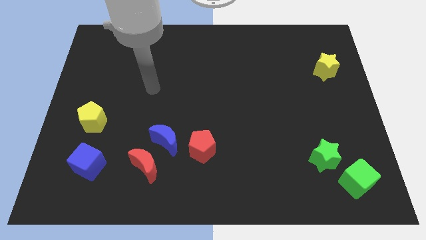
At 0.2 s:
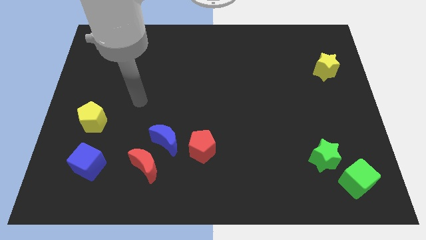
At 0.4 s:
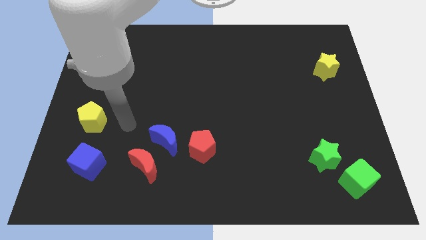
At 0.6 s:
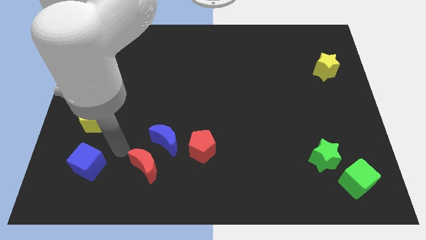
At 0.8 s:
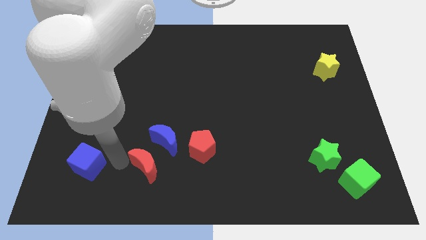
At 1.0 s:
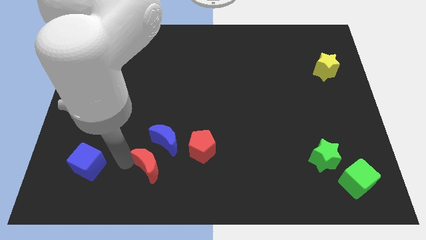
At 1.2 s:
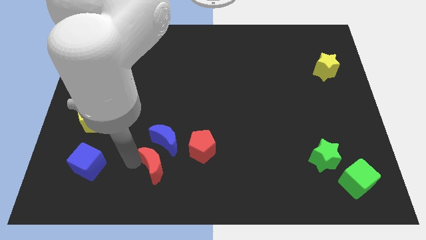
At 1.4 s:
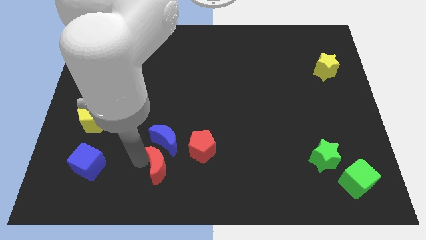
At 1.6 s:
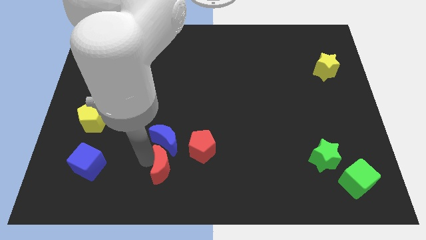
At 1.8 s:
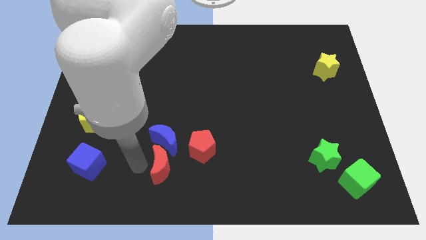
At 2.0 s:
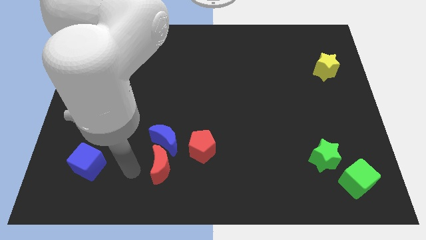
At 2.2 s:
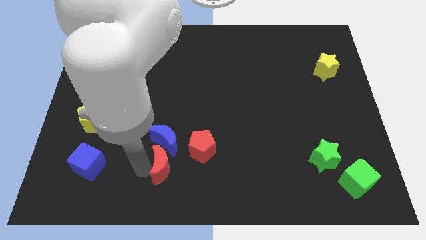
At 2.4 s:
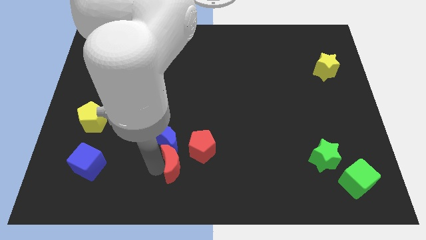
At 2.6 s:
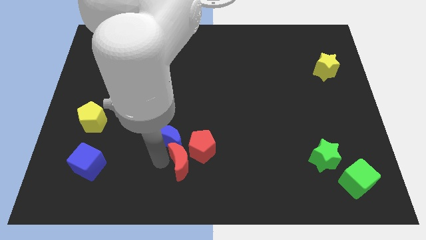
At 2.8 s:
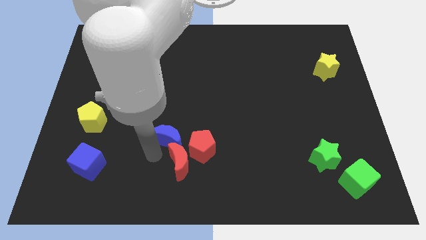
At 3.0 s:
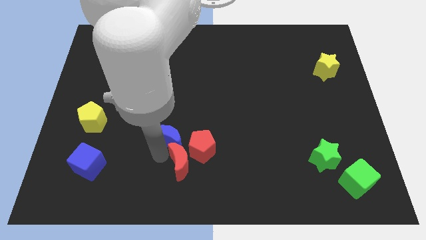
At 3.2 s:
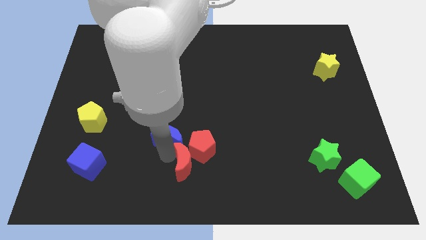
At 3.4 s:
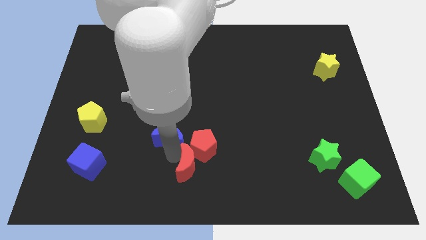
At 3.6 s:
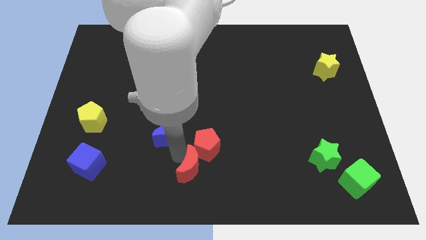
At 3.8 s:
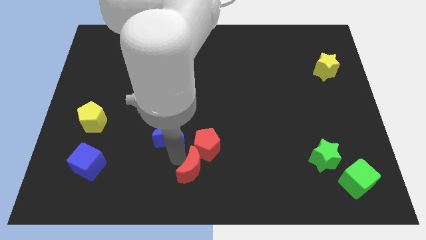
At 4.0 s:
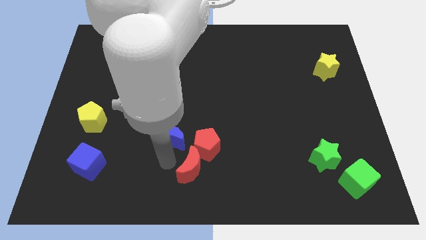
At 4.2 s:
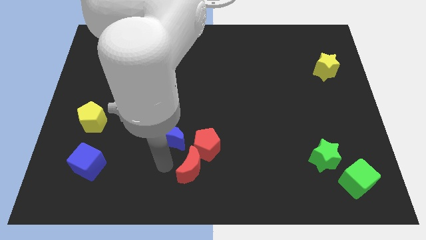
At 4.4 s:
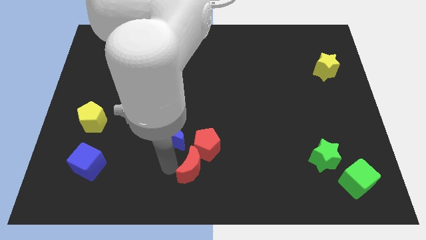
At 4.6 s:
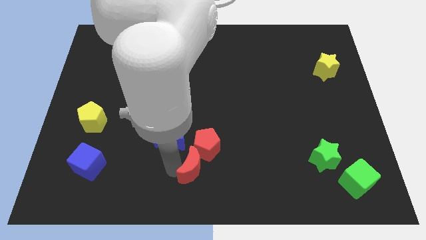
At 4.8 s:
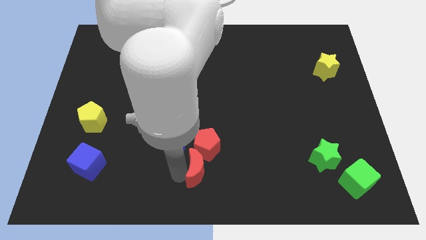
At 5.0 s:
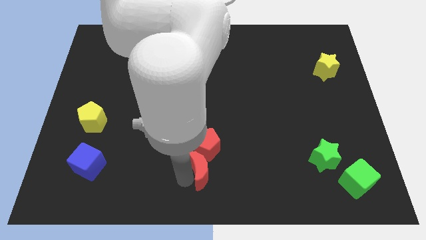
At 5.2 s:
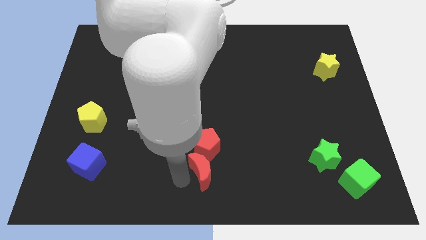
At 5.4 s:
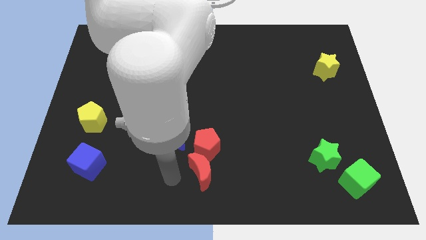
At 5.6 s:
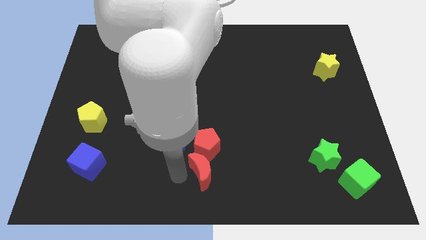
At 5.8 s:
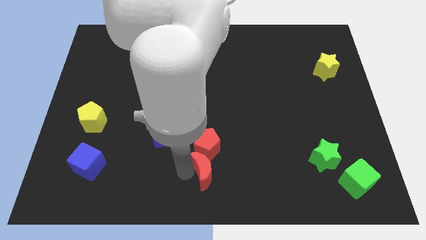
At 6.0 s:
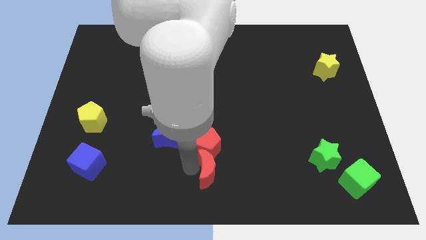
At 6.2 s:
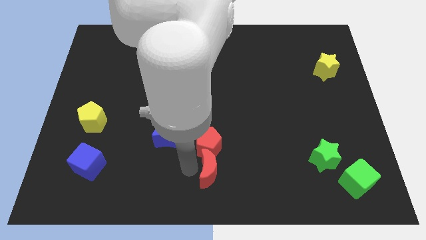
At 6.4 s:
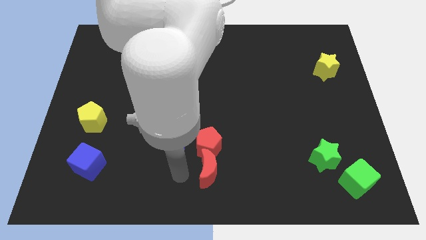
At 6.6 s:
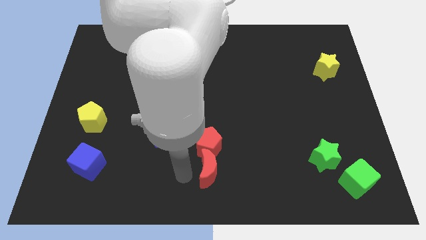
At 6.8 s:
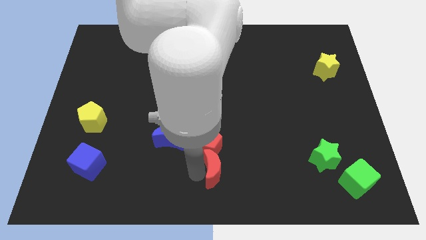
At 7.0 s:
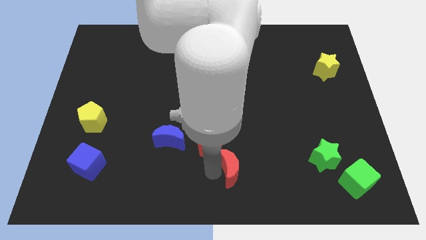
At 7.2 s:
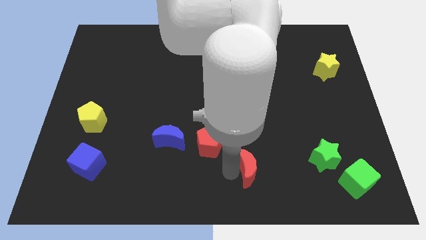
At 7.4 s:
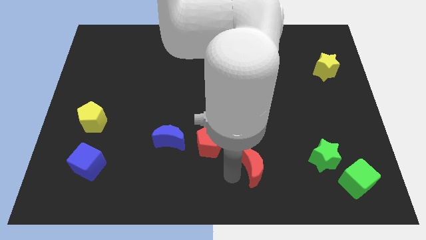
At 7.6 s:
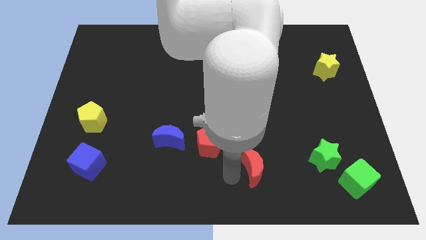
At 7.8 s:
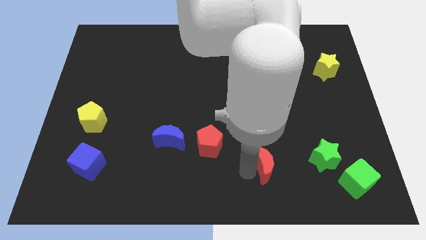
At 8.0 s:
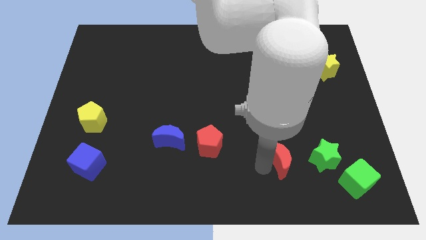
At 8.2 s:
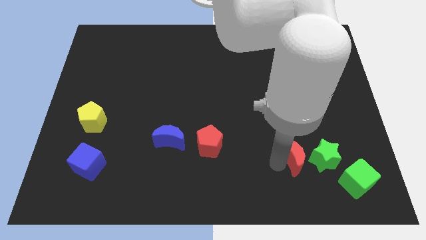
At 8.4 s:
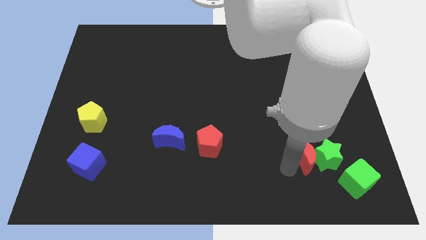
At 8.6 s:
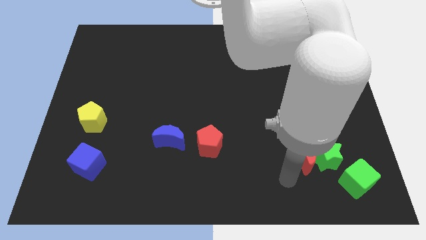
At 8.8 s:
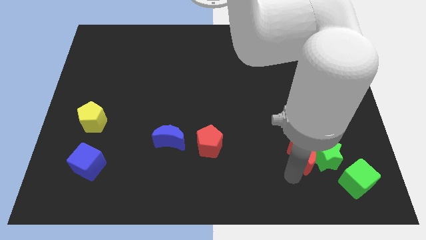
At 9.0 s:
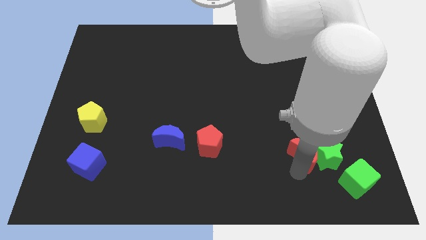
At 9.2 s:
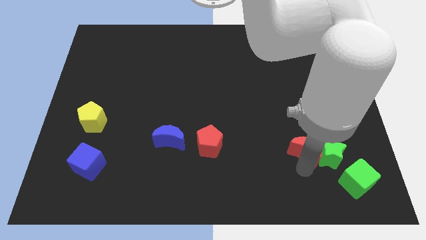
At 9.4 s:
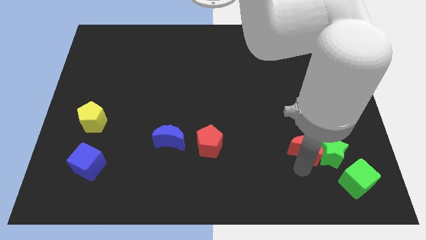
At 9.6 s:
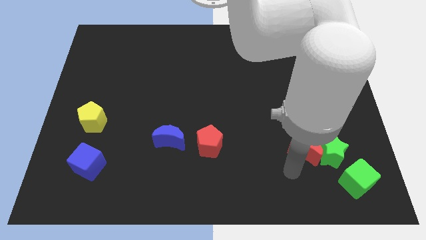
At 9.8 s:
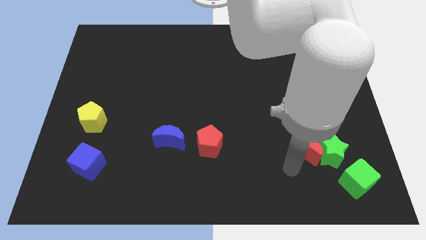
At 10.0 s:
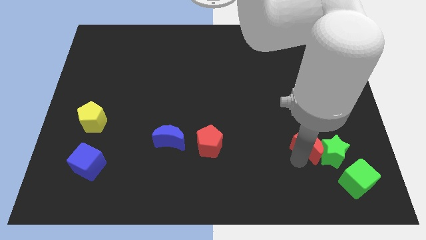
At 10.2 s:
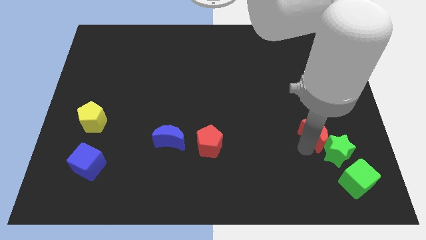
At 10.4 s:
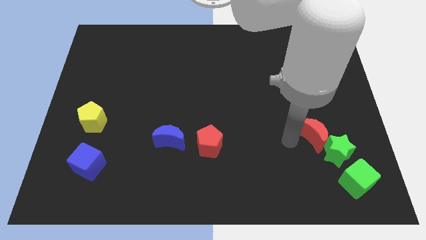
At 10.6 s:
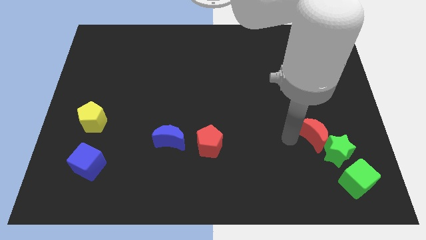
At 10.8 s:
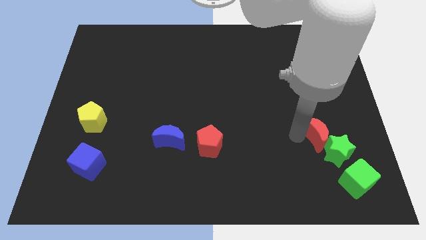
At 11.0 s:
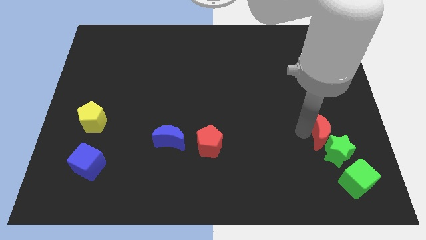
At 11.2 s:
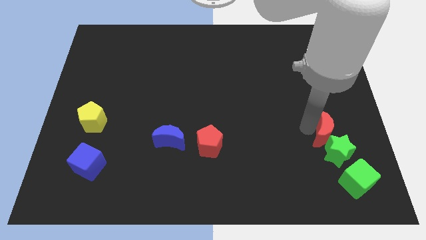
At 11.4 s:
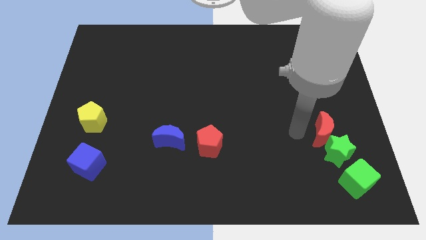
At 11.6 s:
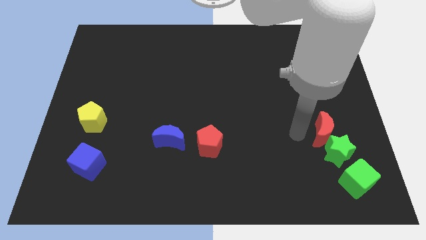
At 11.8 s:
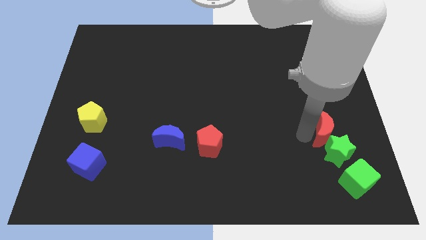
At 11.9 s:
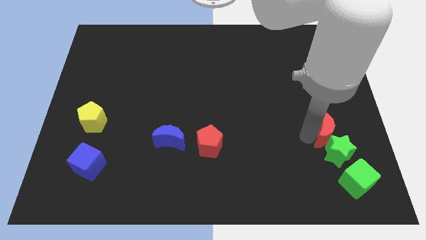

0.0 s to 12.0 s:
put the red moon to the top right side of the green star
